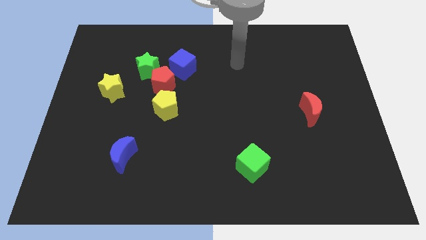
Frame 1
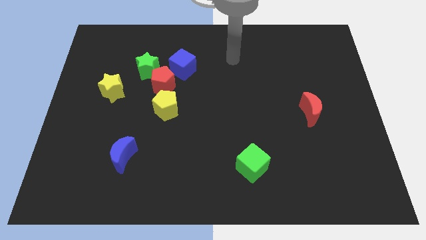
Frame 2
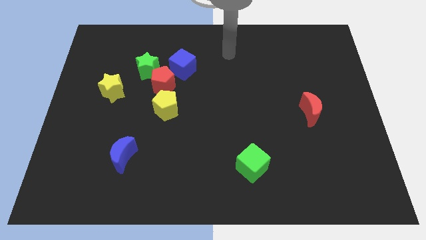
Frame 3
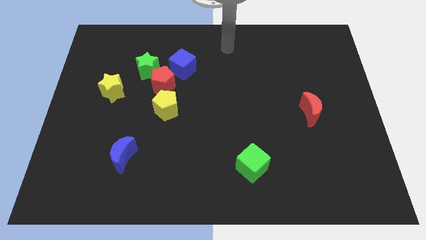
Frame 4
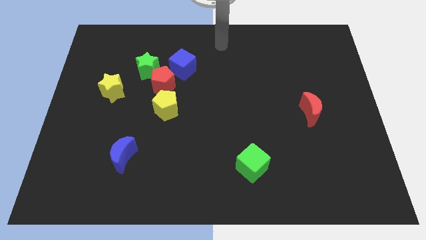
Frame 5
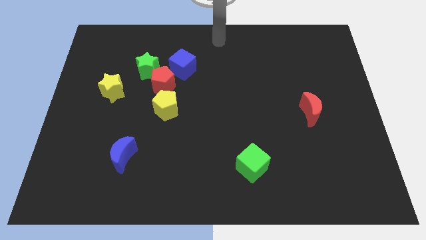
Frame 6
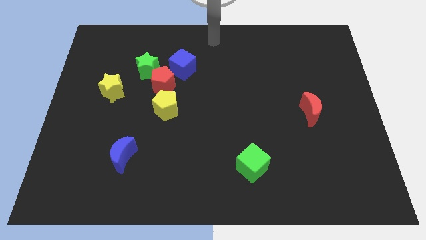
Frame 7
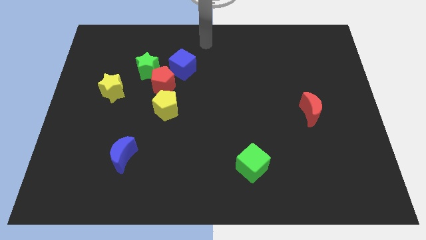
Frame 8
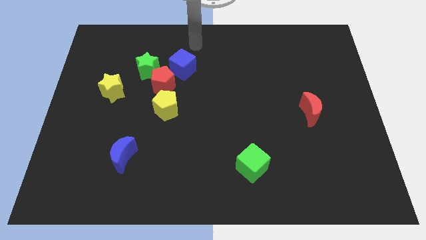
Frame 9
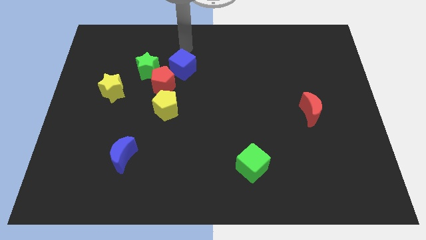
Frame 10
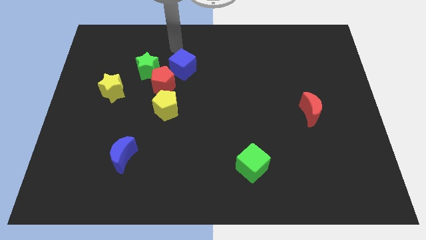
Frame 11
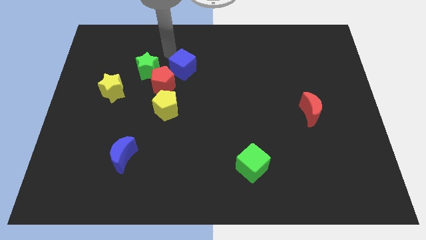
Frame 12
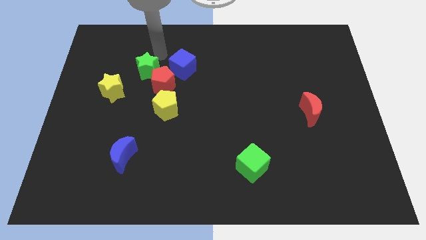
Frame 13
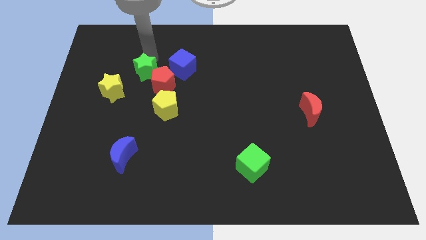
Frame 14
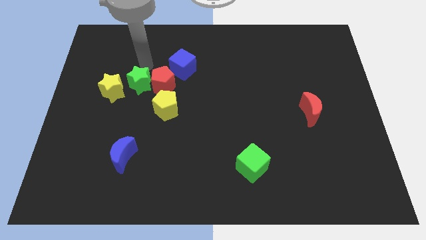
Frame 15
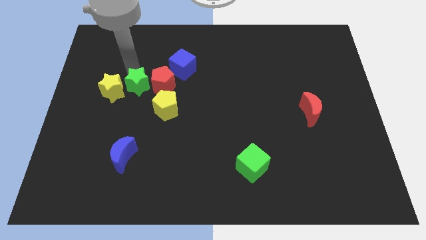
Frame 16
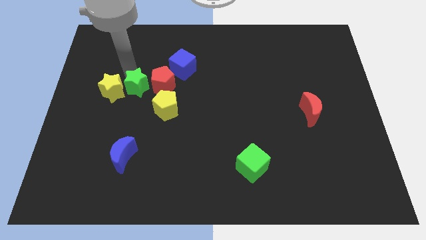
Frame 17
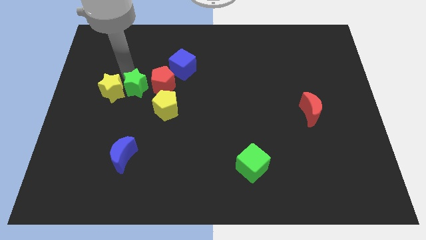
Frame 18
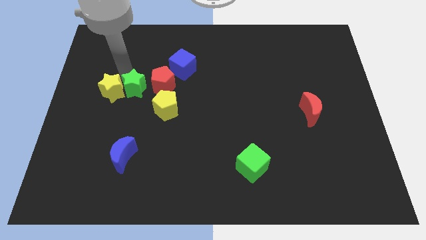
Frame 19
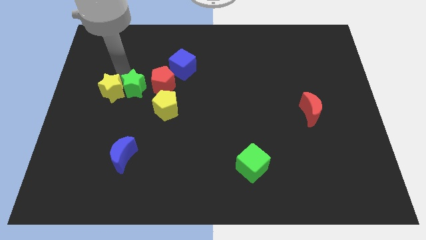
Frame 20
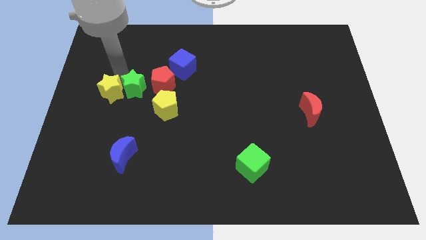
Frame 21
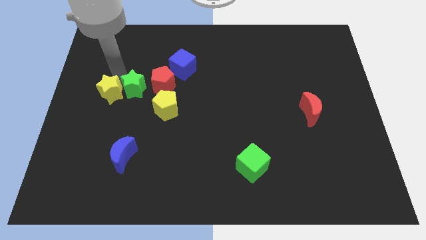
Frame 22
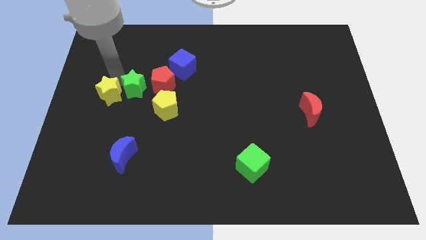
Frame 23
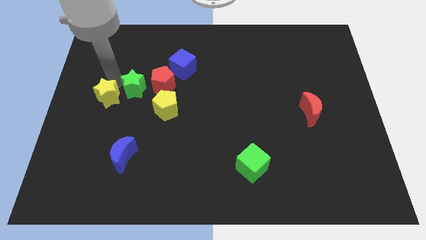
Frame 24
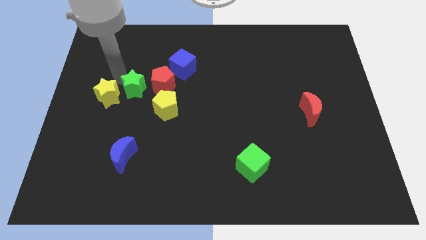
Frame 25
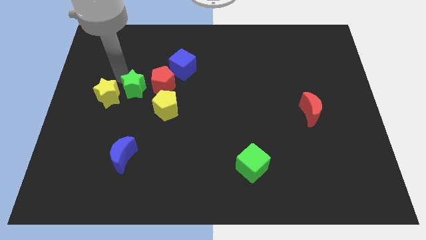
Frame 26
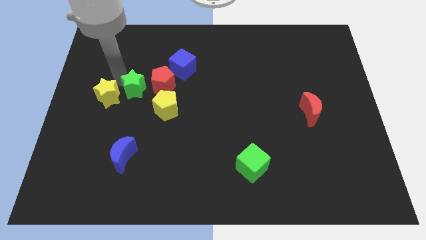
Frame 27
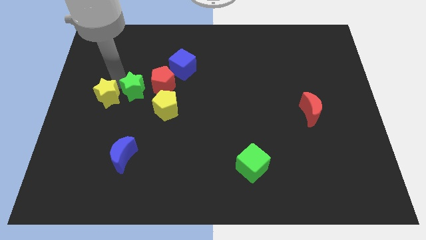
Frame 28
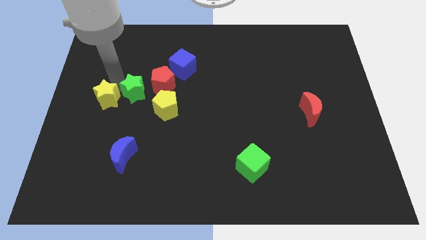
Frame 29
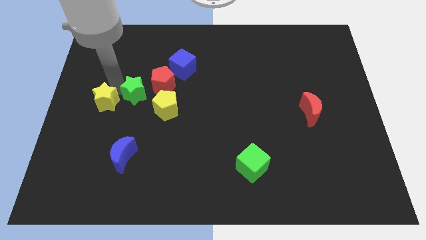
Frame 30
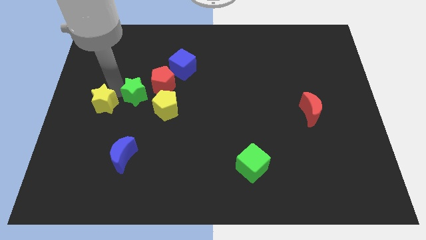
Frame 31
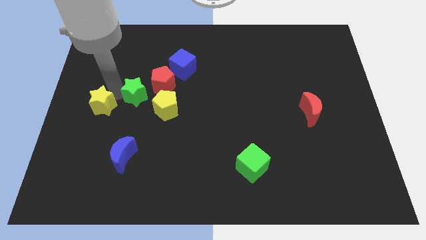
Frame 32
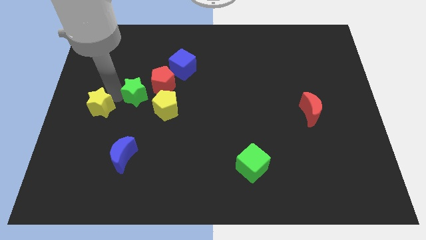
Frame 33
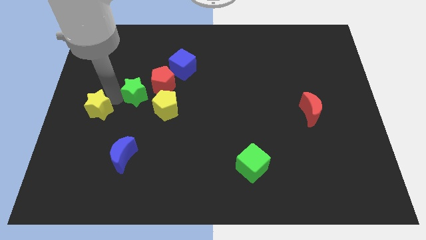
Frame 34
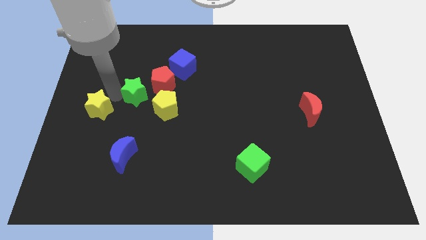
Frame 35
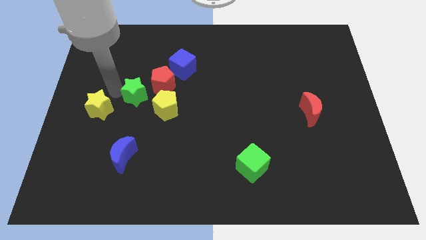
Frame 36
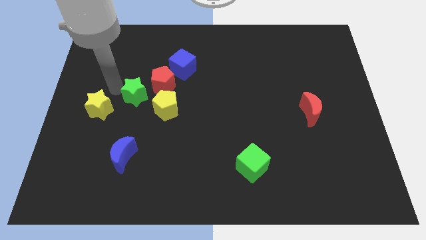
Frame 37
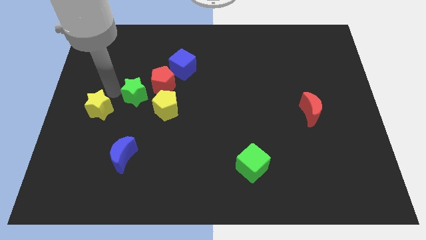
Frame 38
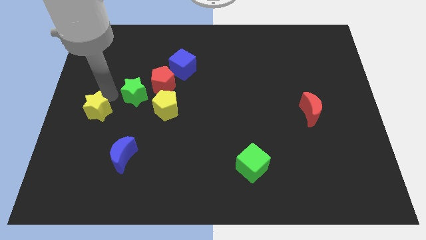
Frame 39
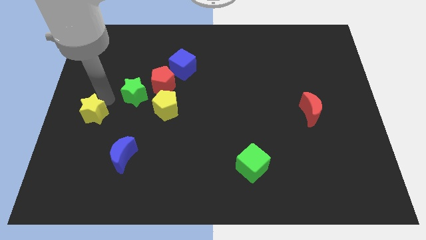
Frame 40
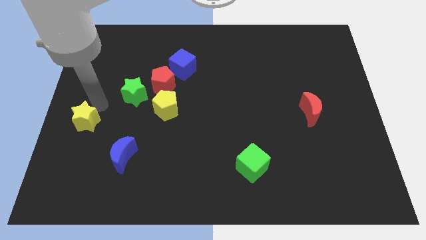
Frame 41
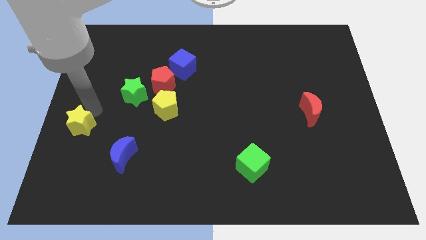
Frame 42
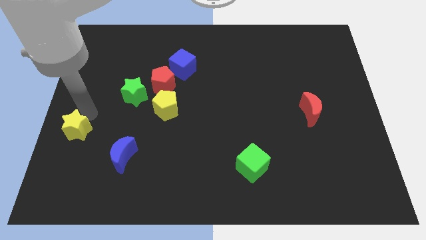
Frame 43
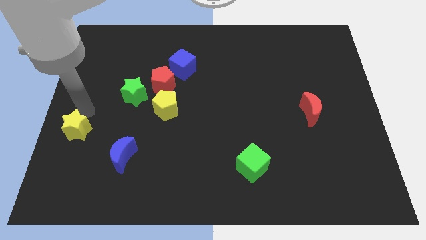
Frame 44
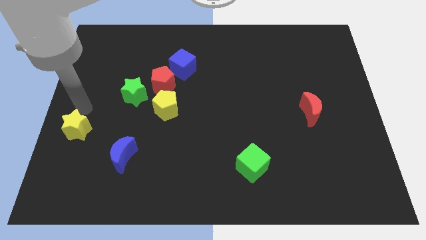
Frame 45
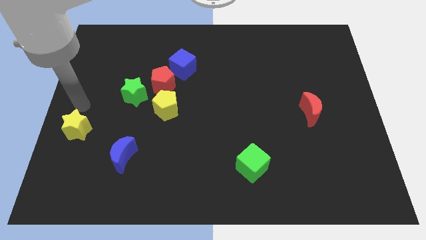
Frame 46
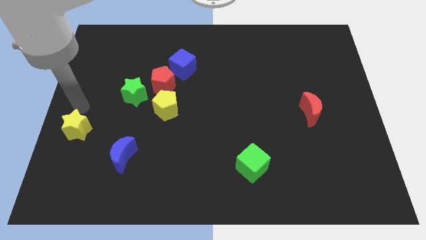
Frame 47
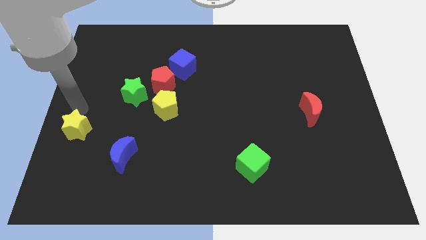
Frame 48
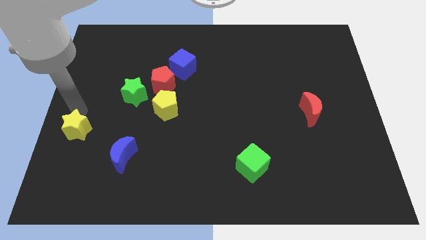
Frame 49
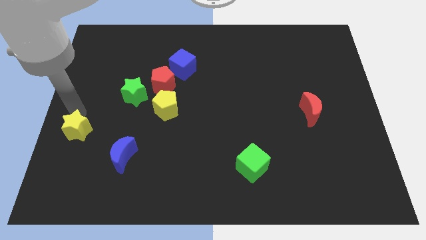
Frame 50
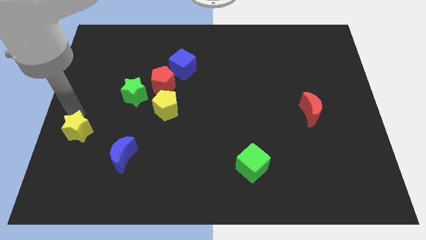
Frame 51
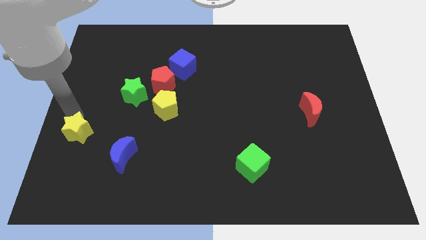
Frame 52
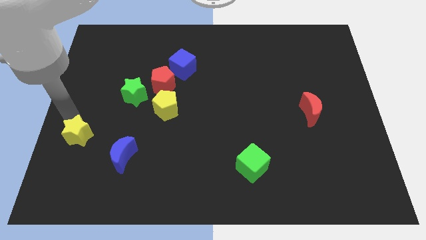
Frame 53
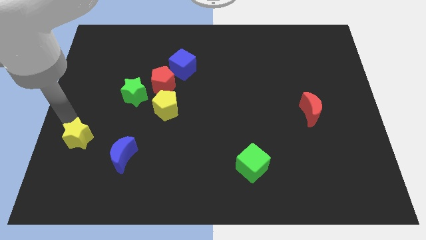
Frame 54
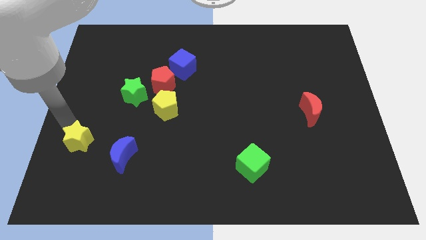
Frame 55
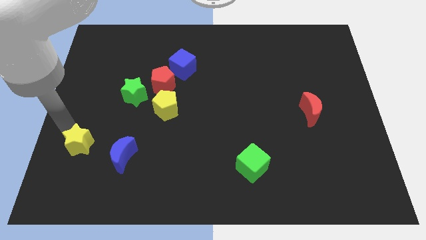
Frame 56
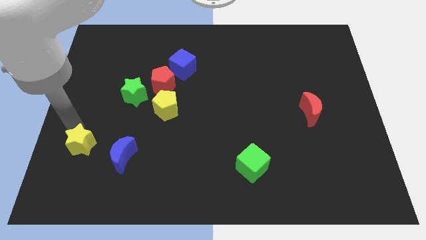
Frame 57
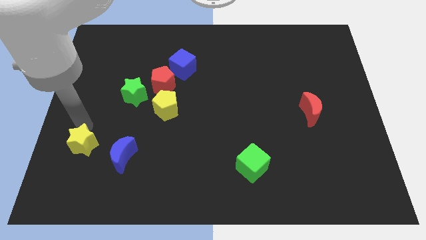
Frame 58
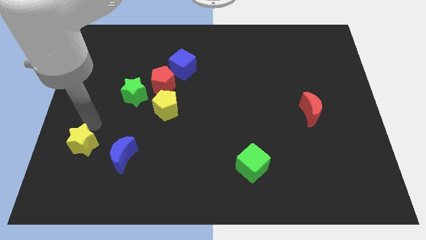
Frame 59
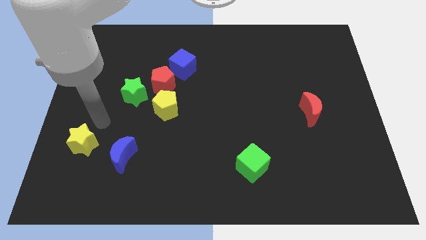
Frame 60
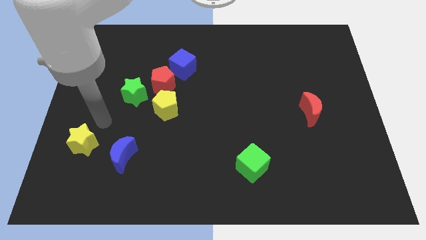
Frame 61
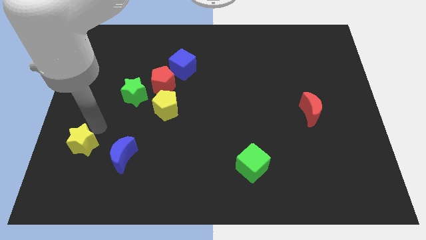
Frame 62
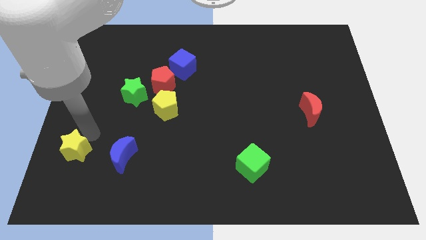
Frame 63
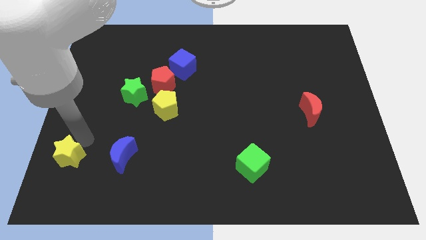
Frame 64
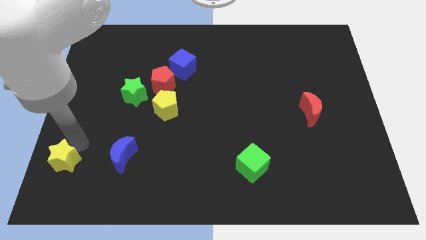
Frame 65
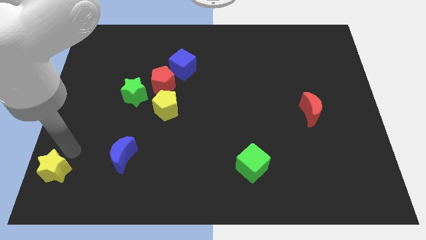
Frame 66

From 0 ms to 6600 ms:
slide the yellow star to the bottom left of the board

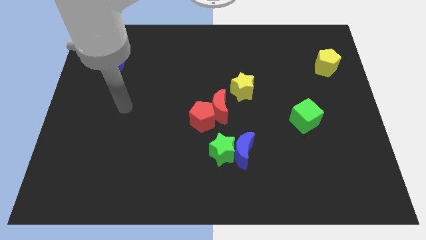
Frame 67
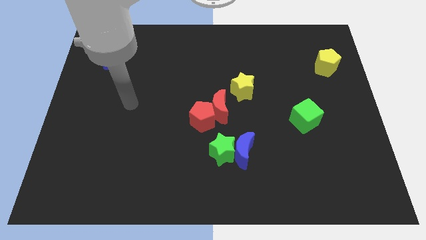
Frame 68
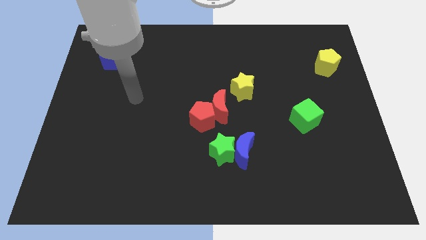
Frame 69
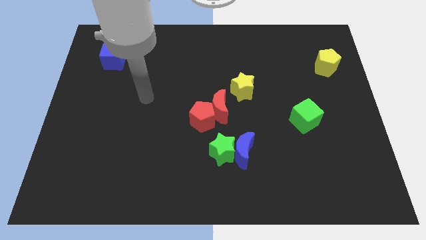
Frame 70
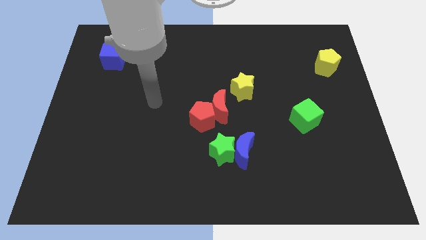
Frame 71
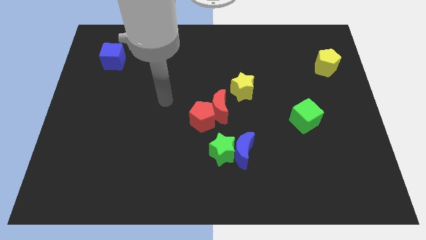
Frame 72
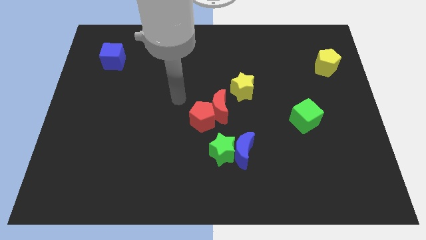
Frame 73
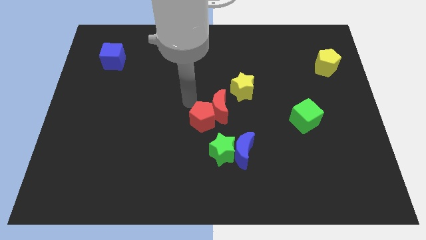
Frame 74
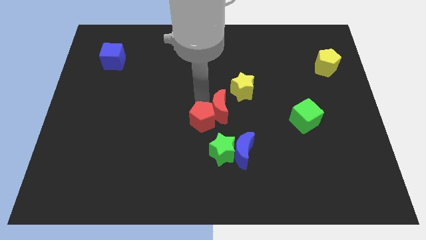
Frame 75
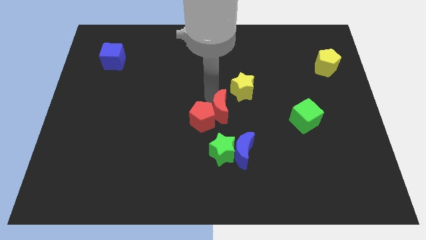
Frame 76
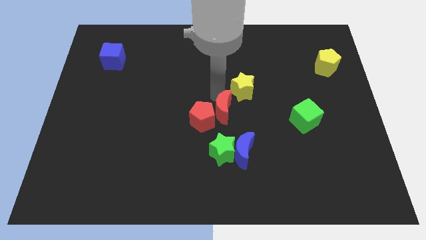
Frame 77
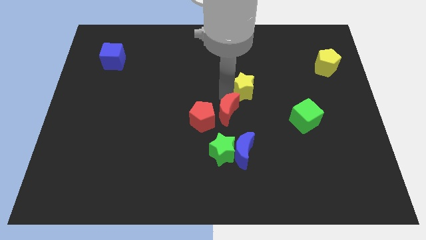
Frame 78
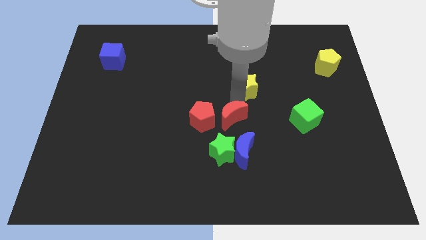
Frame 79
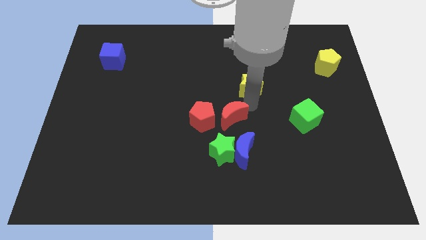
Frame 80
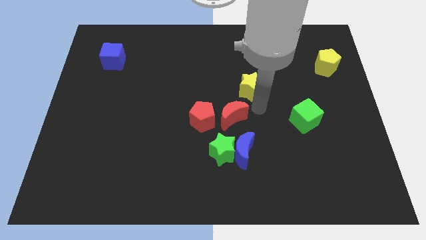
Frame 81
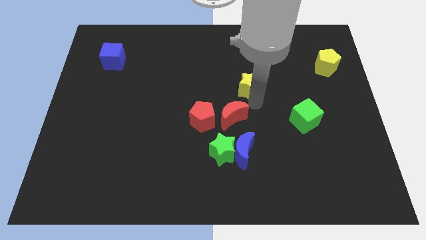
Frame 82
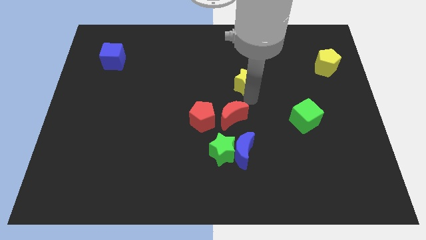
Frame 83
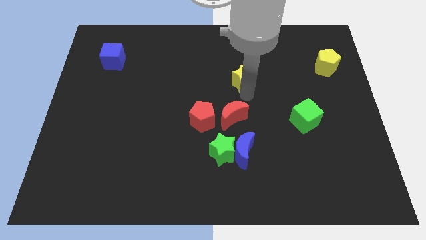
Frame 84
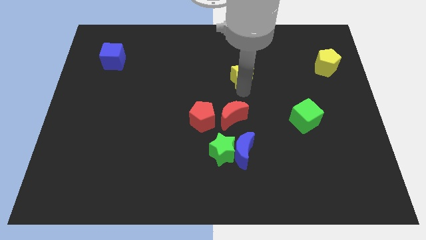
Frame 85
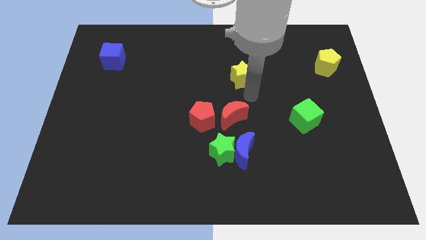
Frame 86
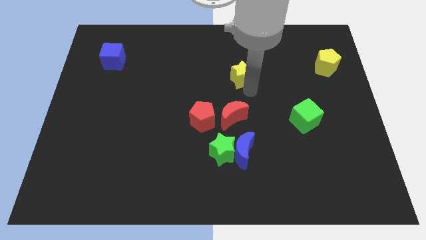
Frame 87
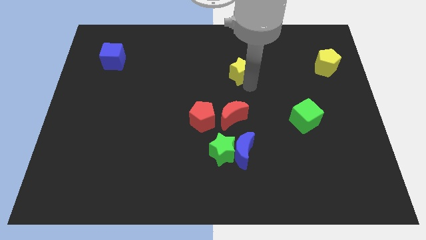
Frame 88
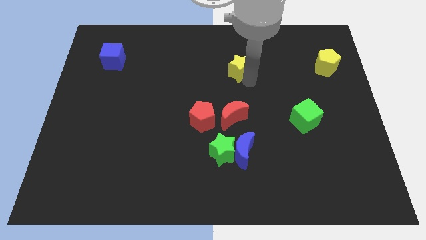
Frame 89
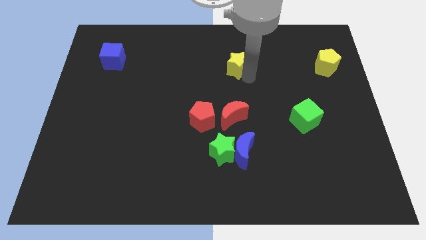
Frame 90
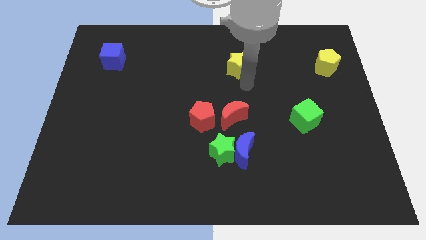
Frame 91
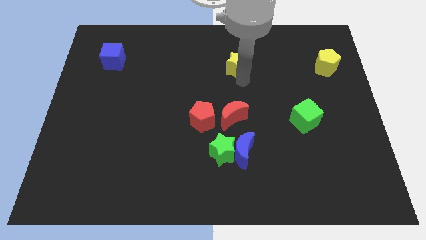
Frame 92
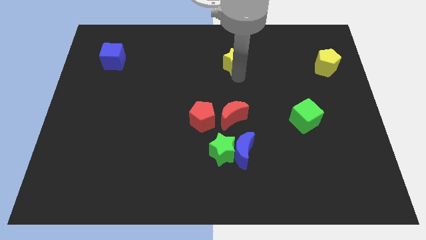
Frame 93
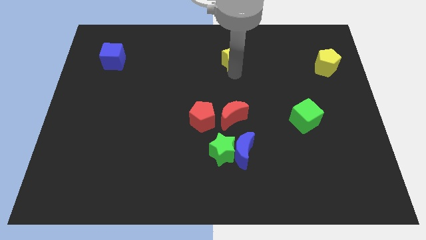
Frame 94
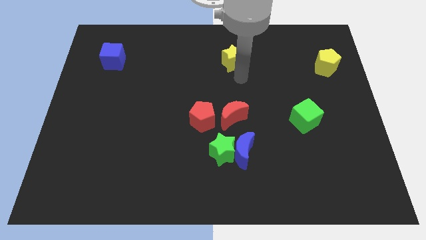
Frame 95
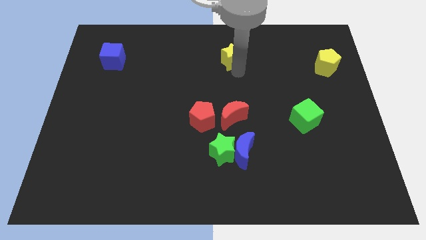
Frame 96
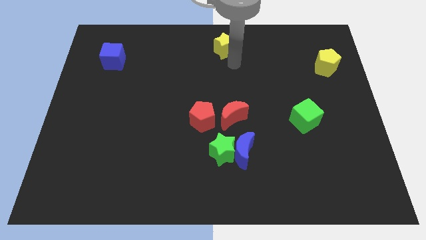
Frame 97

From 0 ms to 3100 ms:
move the yellow star to the top
